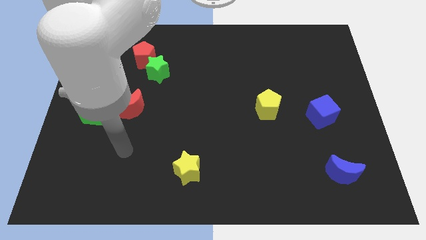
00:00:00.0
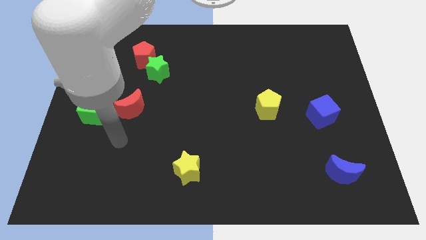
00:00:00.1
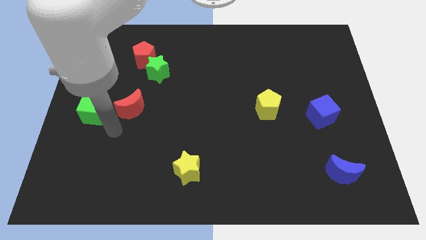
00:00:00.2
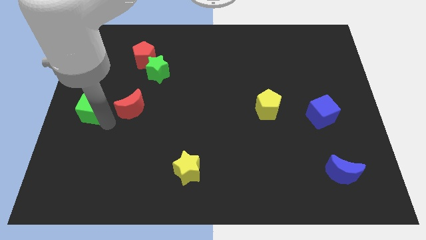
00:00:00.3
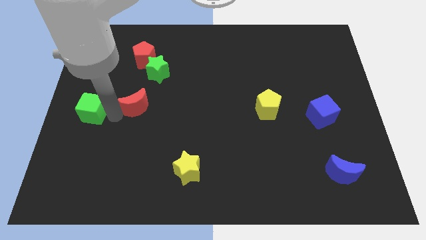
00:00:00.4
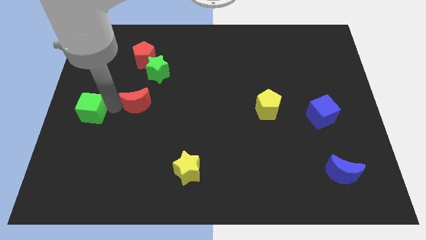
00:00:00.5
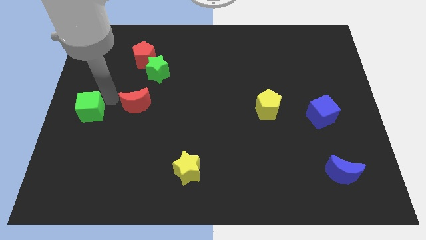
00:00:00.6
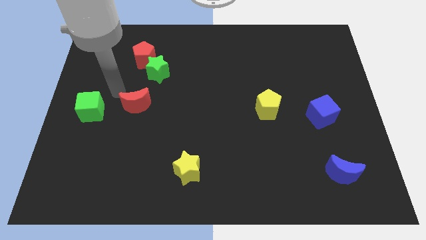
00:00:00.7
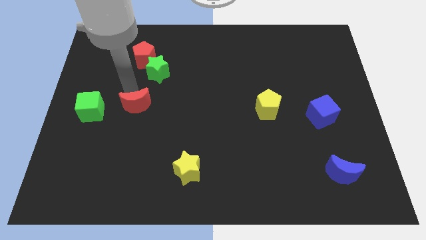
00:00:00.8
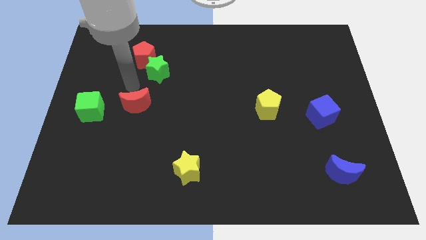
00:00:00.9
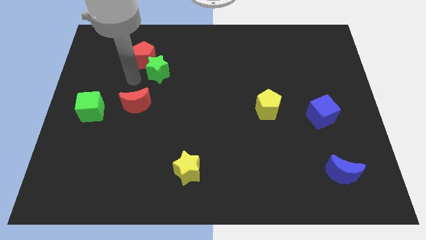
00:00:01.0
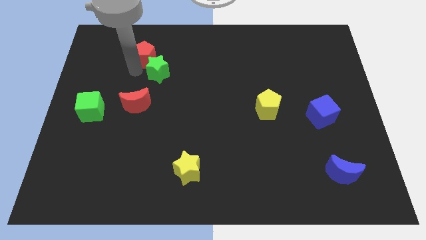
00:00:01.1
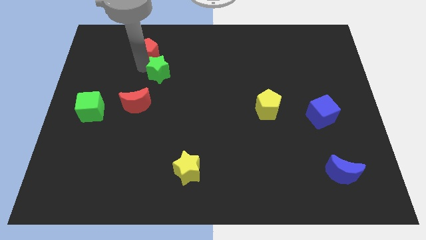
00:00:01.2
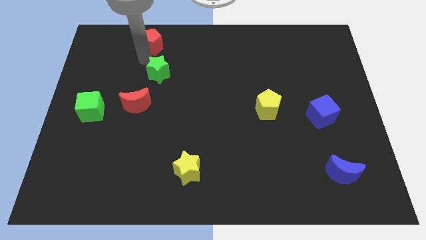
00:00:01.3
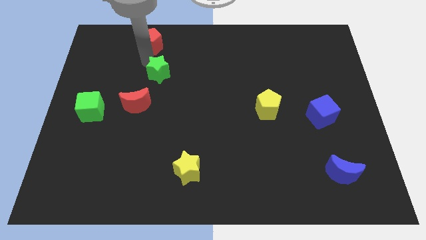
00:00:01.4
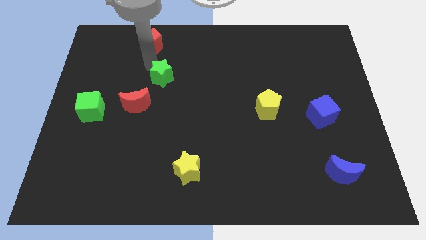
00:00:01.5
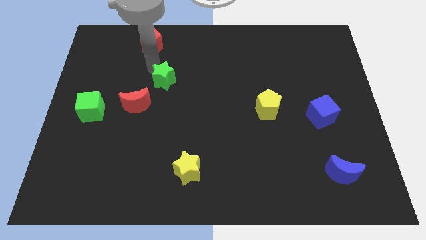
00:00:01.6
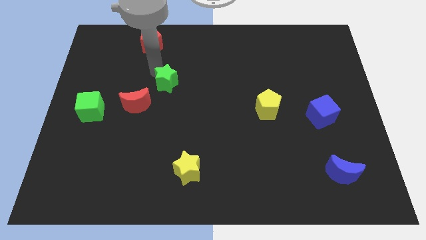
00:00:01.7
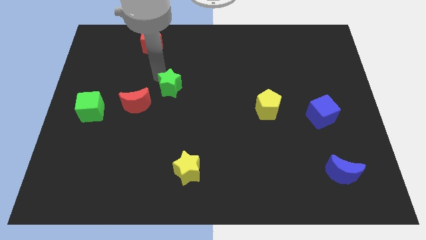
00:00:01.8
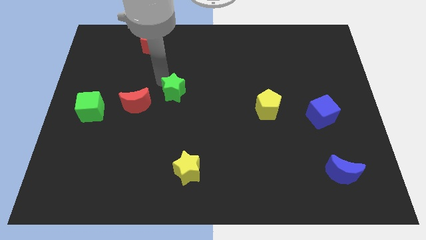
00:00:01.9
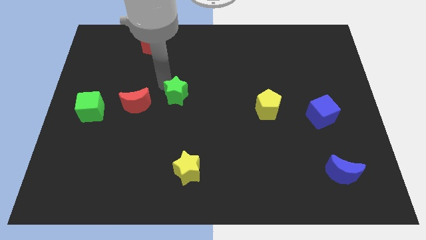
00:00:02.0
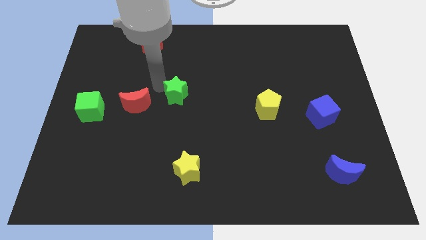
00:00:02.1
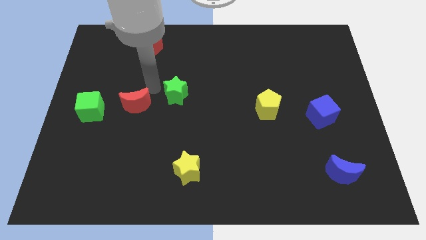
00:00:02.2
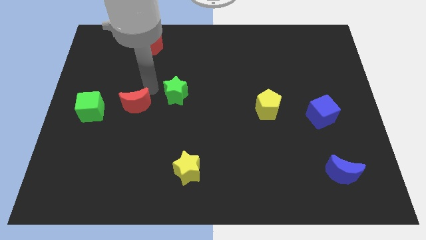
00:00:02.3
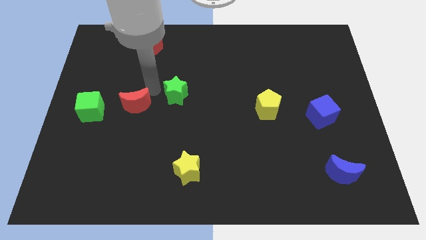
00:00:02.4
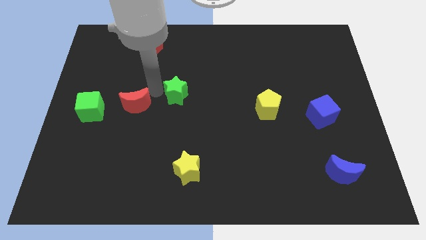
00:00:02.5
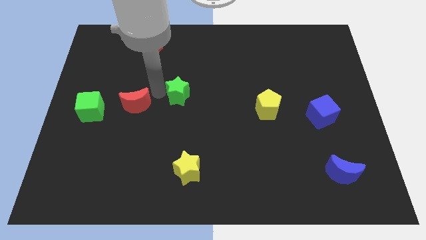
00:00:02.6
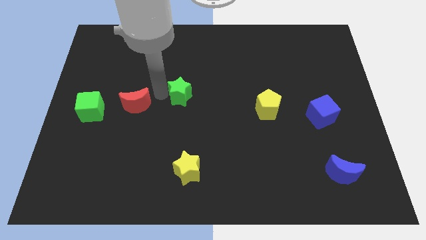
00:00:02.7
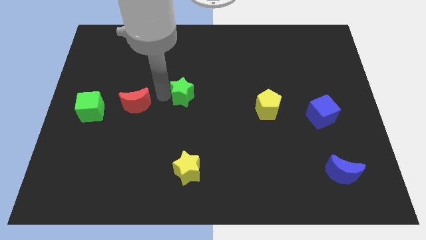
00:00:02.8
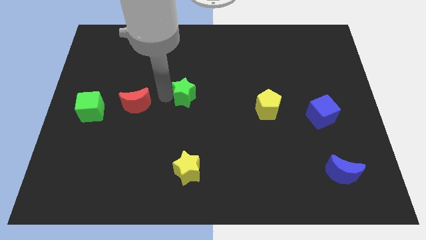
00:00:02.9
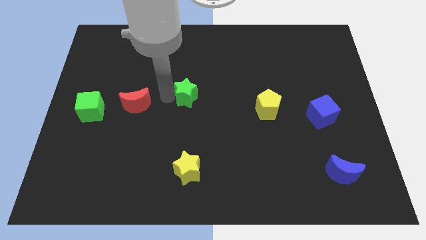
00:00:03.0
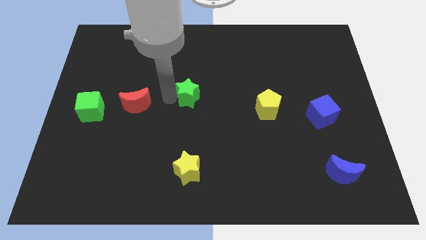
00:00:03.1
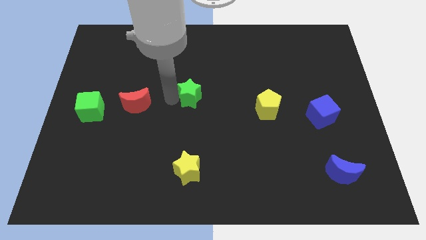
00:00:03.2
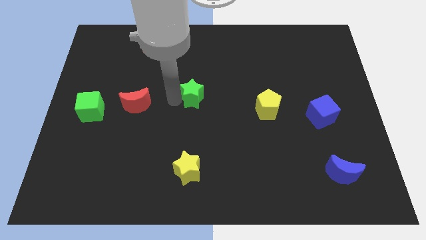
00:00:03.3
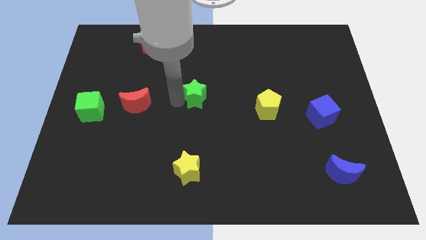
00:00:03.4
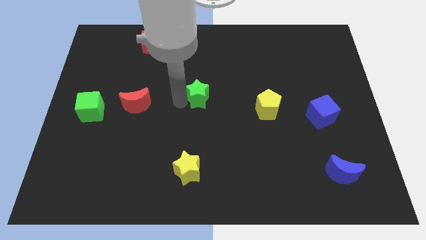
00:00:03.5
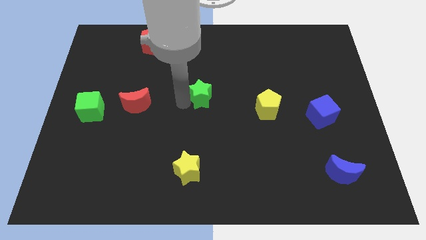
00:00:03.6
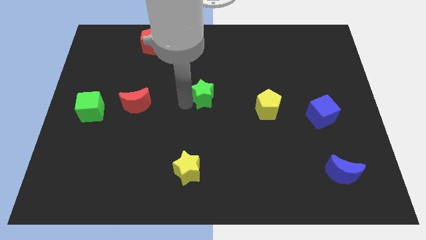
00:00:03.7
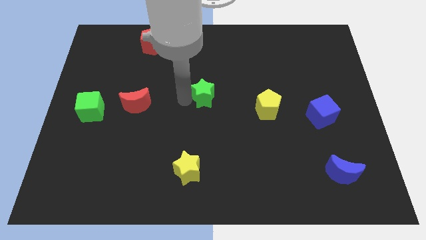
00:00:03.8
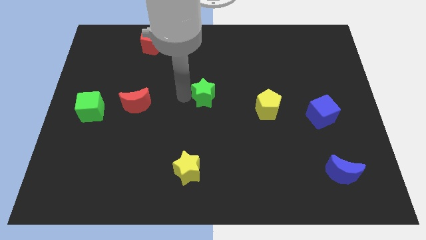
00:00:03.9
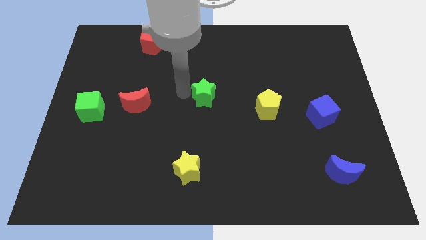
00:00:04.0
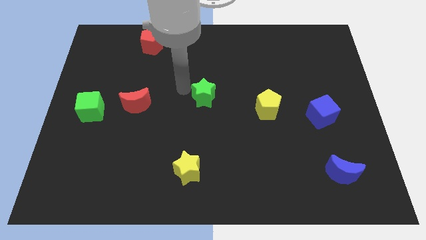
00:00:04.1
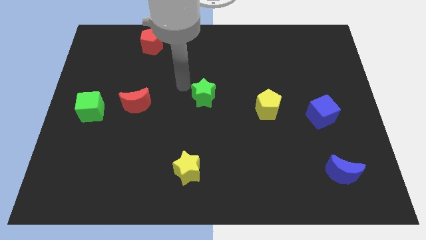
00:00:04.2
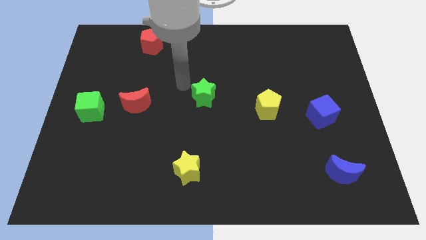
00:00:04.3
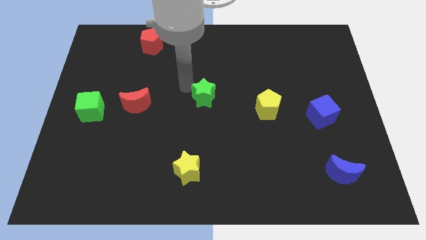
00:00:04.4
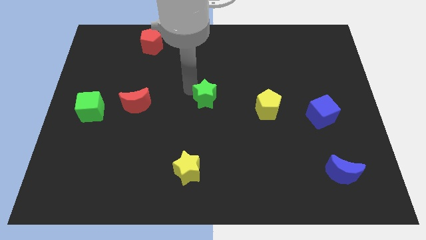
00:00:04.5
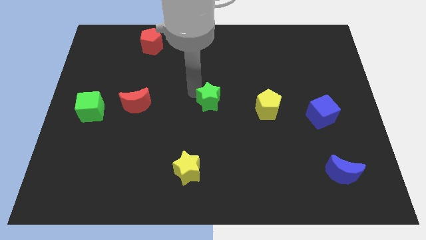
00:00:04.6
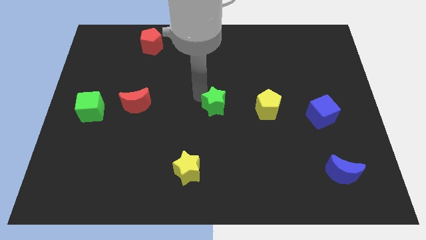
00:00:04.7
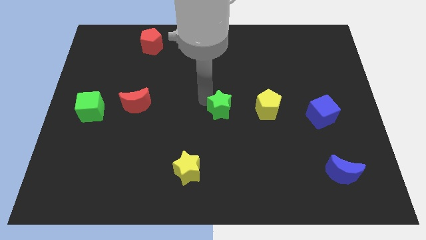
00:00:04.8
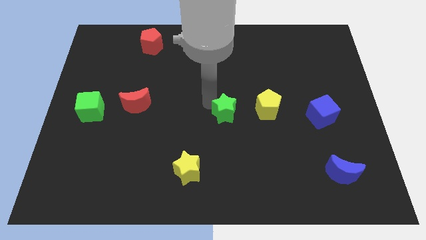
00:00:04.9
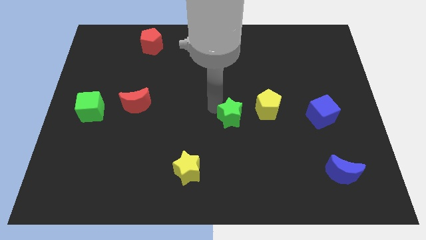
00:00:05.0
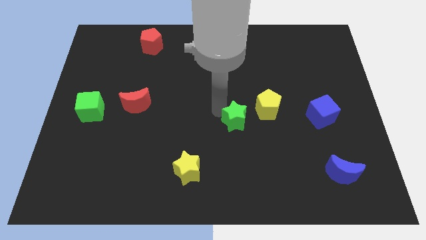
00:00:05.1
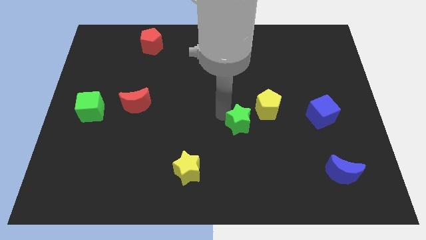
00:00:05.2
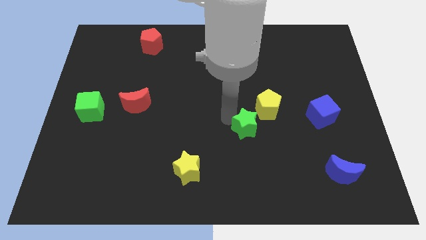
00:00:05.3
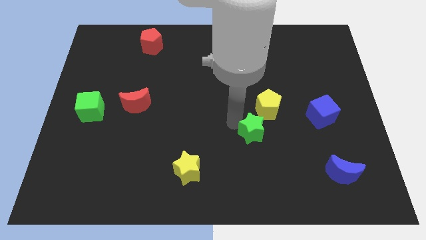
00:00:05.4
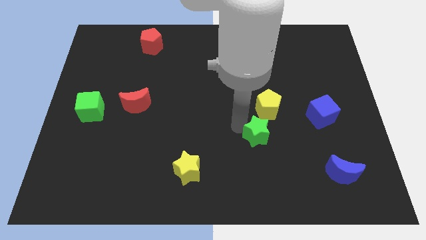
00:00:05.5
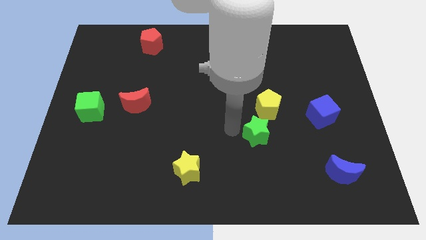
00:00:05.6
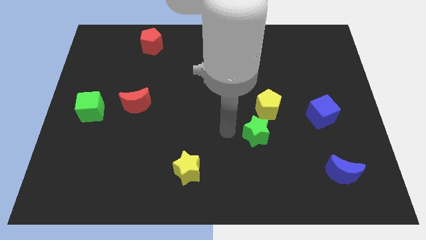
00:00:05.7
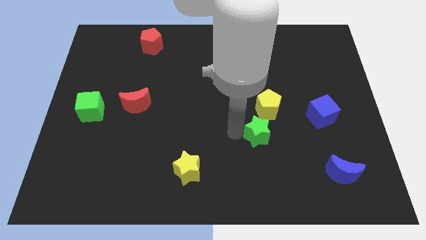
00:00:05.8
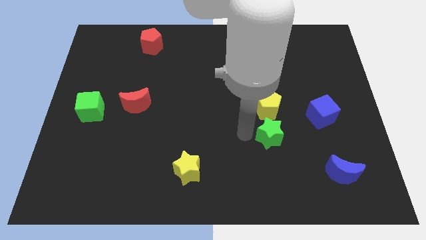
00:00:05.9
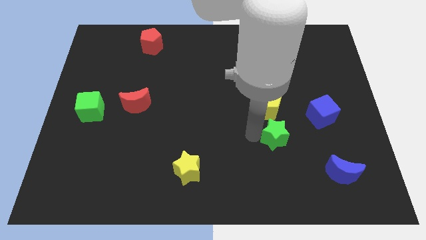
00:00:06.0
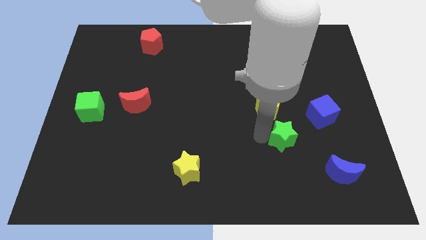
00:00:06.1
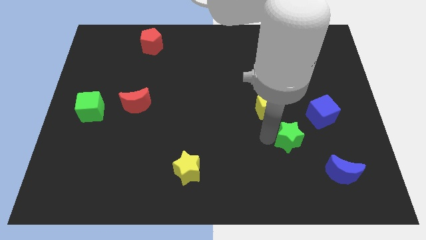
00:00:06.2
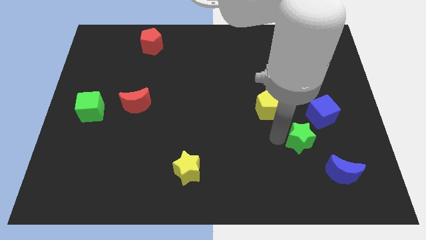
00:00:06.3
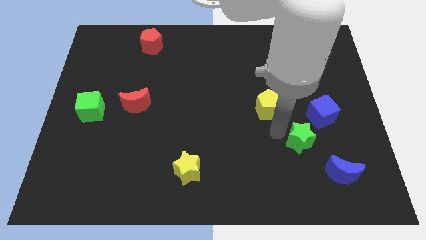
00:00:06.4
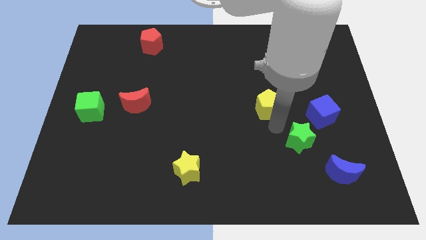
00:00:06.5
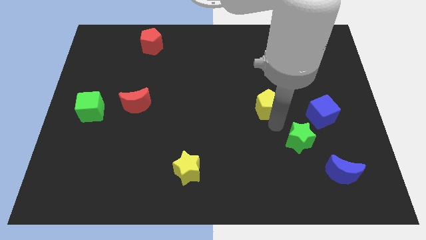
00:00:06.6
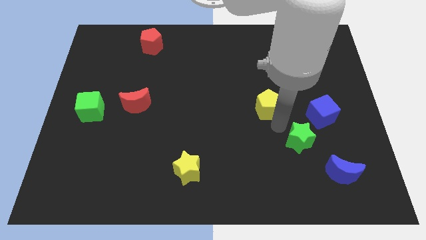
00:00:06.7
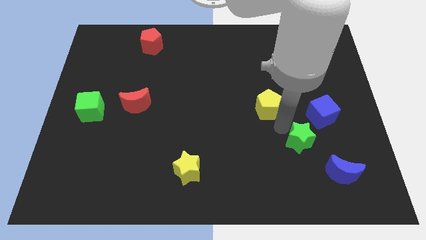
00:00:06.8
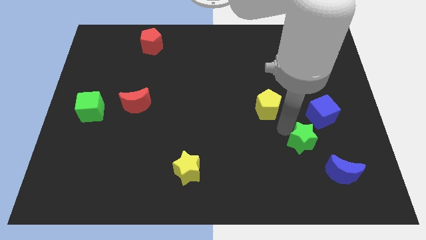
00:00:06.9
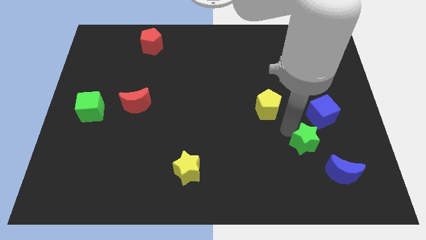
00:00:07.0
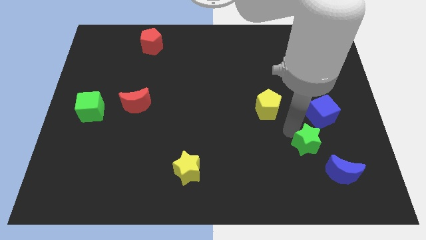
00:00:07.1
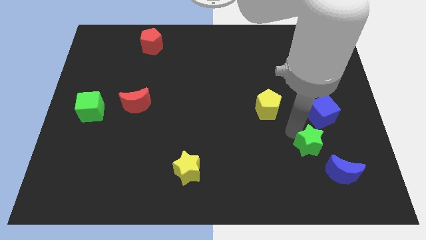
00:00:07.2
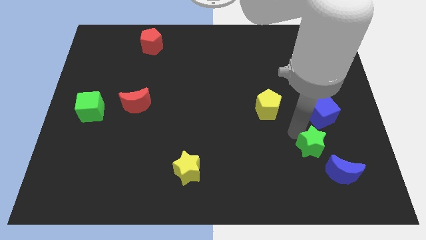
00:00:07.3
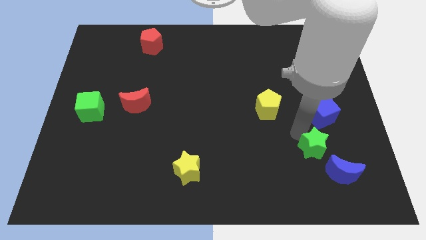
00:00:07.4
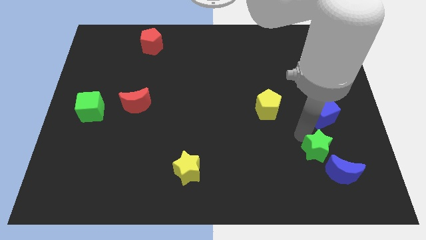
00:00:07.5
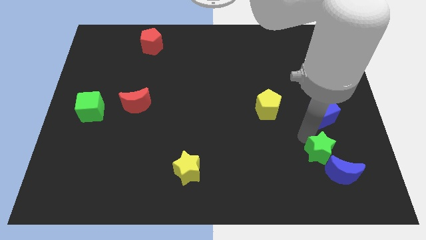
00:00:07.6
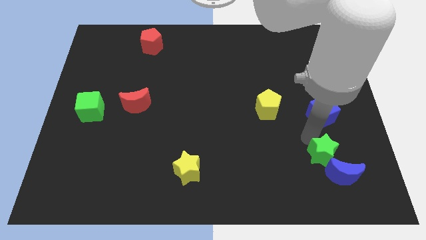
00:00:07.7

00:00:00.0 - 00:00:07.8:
slide the green star towards the blue moon
